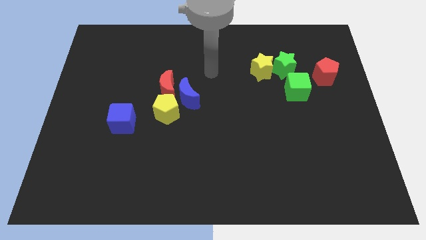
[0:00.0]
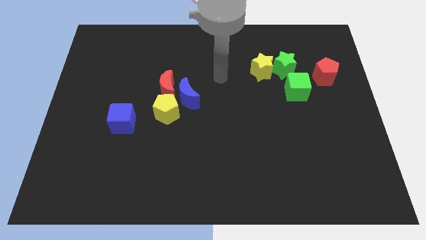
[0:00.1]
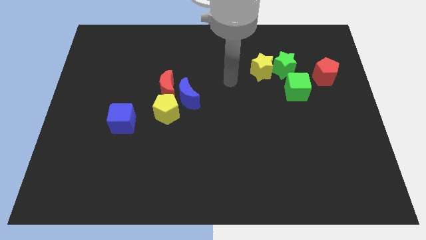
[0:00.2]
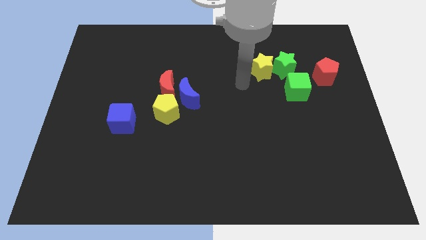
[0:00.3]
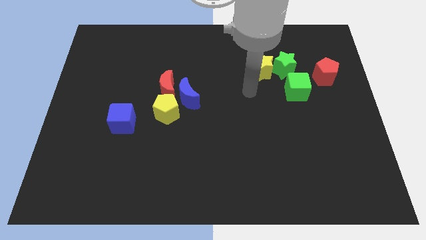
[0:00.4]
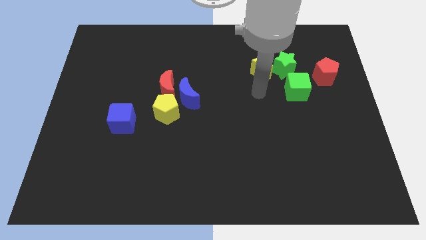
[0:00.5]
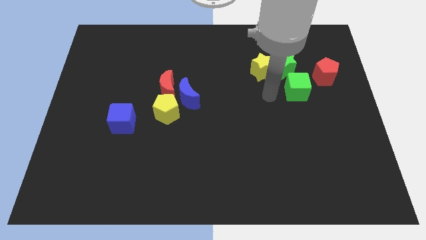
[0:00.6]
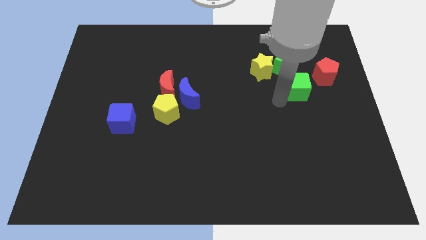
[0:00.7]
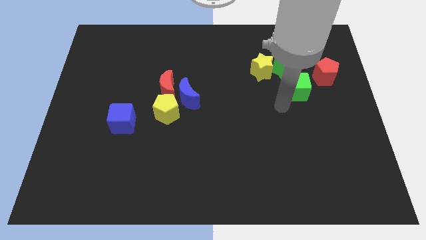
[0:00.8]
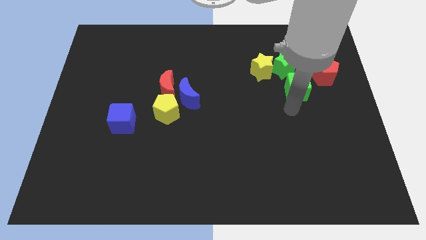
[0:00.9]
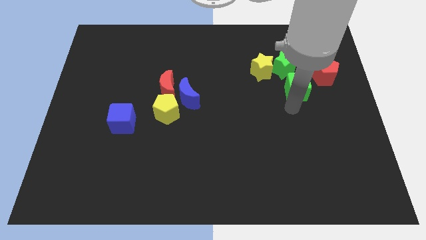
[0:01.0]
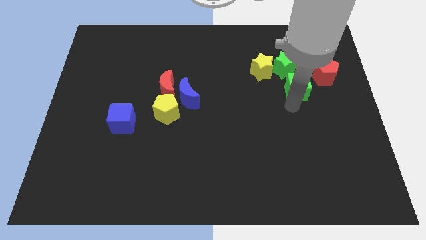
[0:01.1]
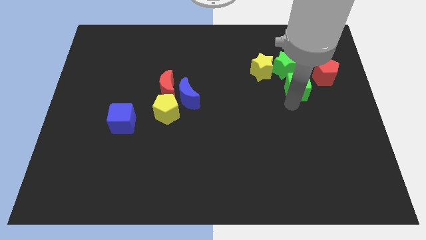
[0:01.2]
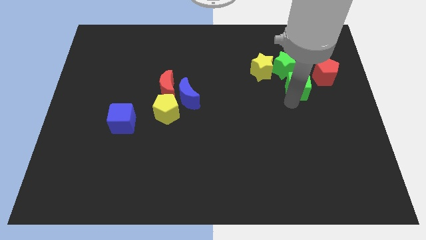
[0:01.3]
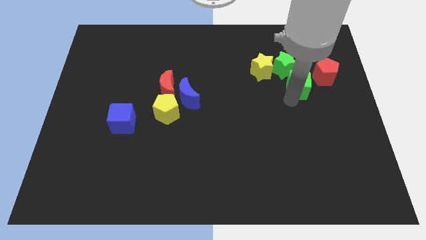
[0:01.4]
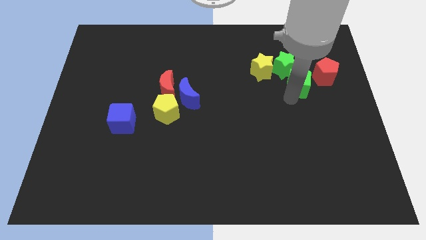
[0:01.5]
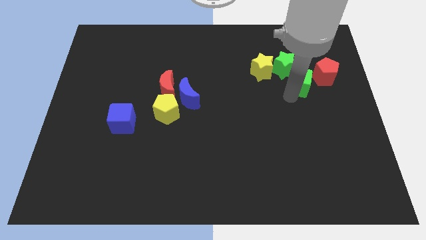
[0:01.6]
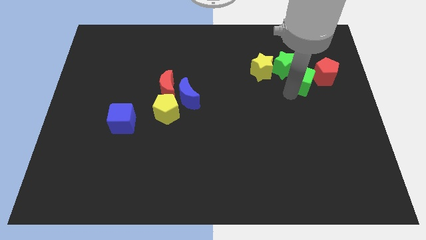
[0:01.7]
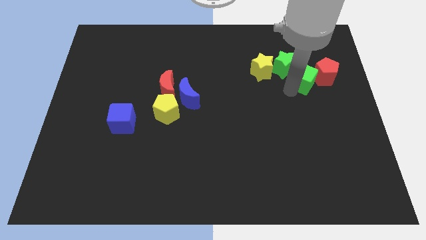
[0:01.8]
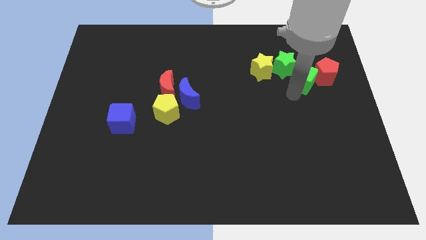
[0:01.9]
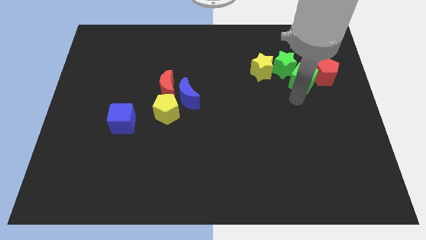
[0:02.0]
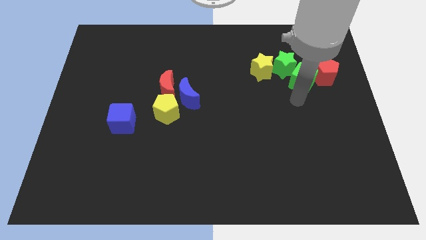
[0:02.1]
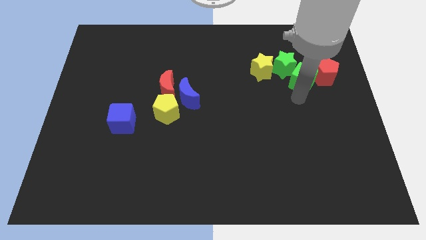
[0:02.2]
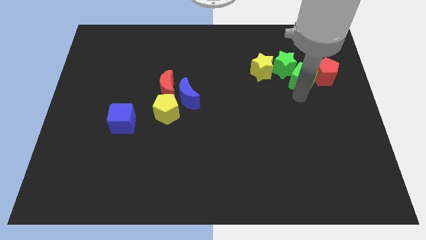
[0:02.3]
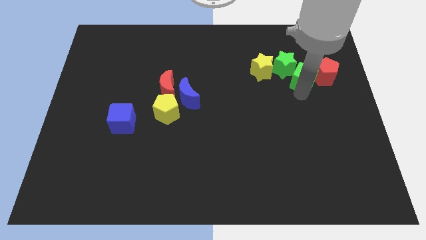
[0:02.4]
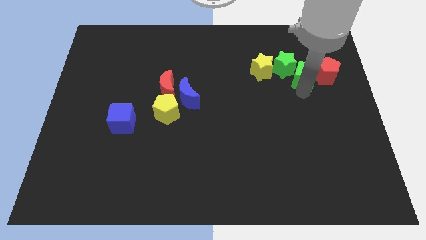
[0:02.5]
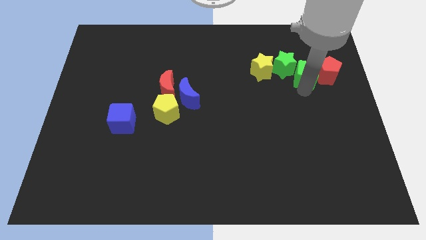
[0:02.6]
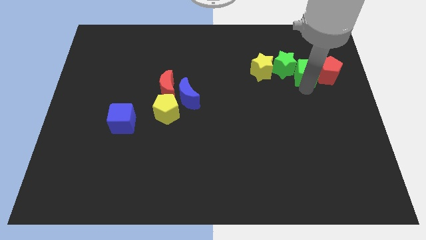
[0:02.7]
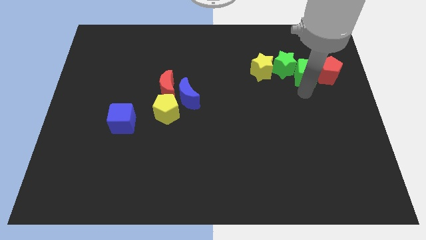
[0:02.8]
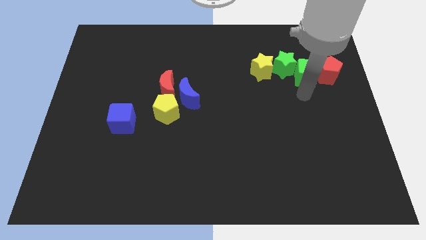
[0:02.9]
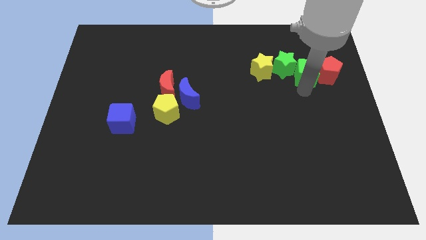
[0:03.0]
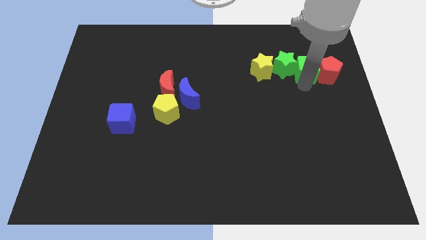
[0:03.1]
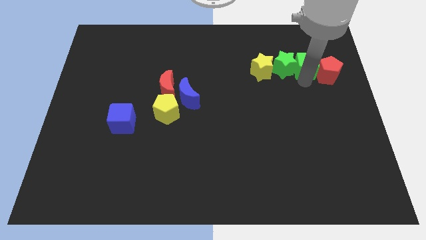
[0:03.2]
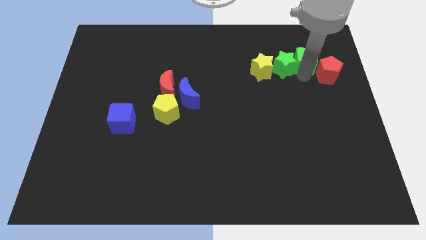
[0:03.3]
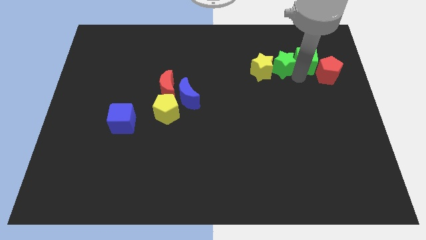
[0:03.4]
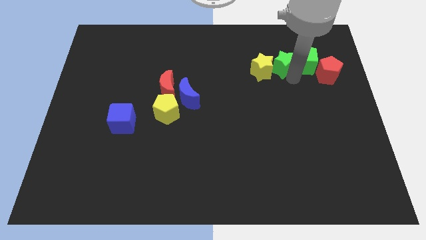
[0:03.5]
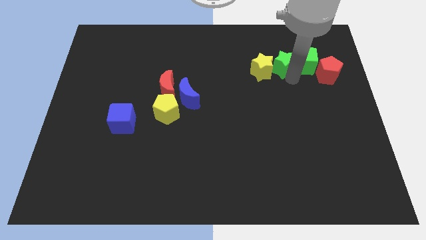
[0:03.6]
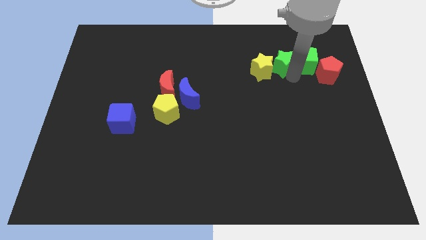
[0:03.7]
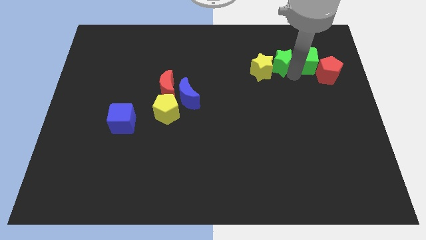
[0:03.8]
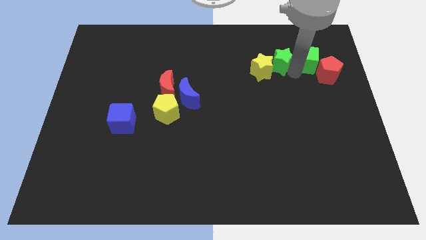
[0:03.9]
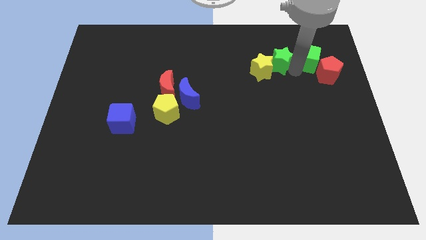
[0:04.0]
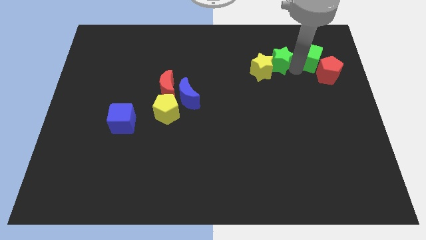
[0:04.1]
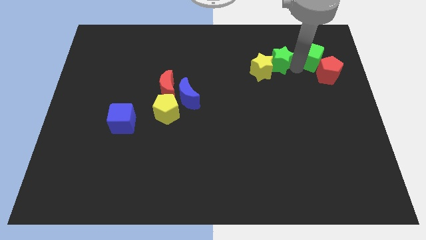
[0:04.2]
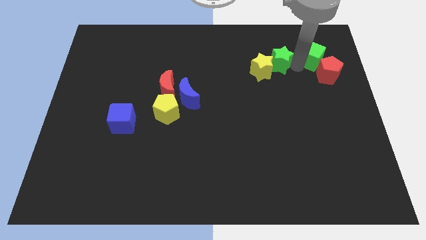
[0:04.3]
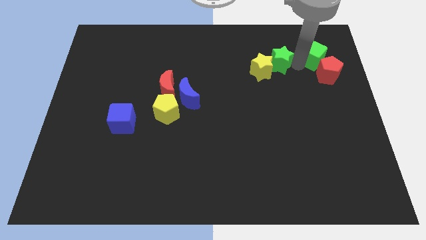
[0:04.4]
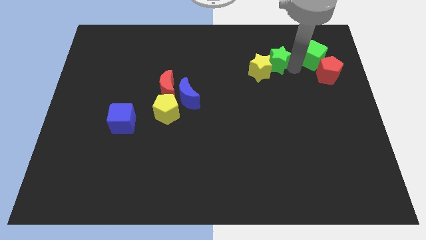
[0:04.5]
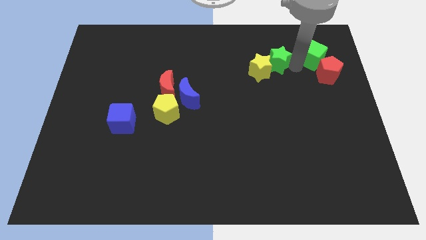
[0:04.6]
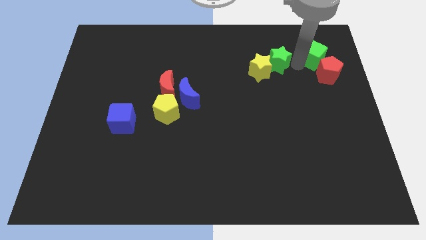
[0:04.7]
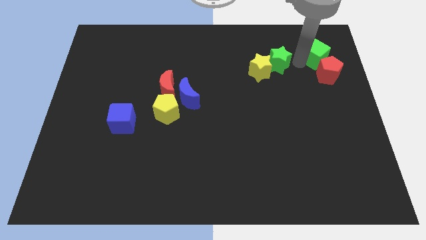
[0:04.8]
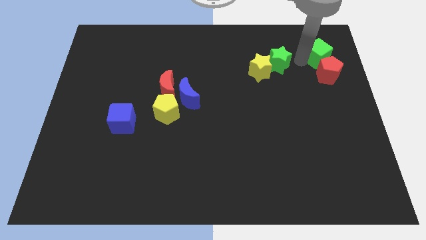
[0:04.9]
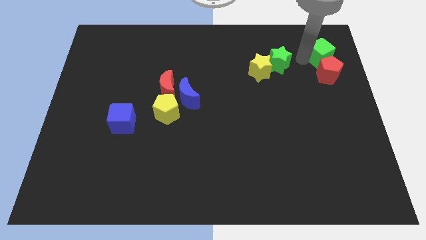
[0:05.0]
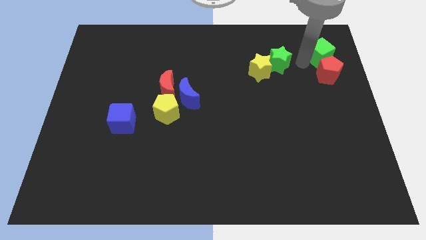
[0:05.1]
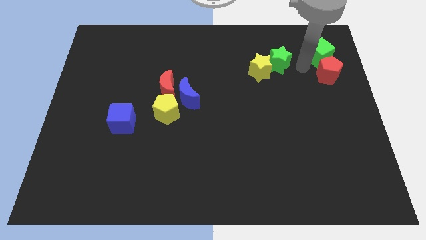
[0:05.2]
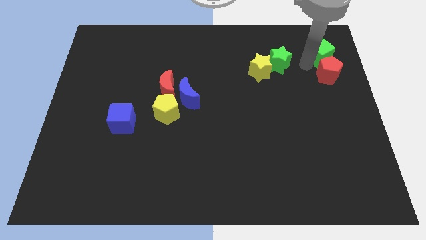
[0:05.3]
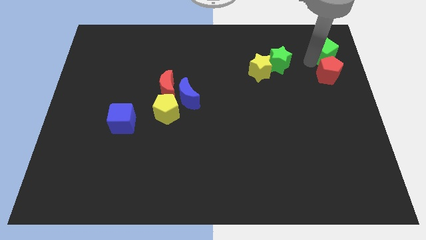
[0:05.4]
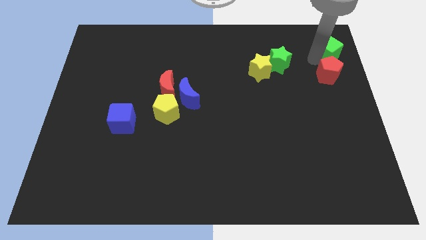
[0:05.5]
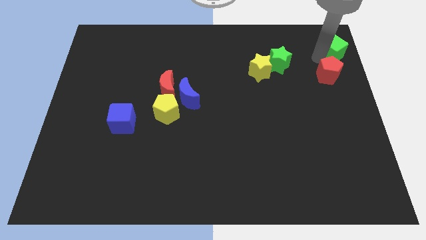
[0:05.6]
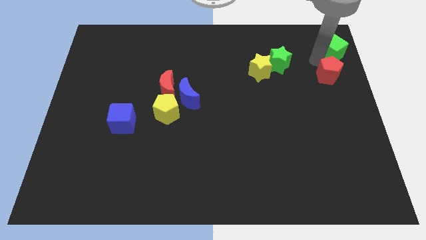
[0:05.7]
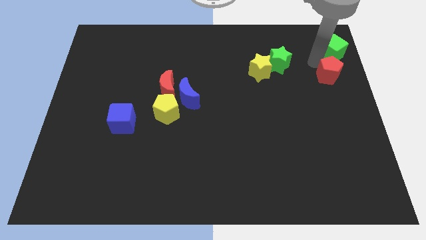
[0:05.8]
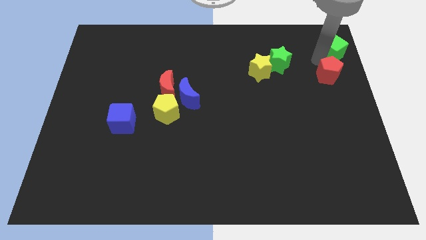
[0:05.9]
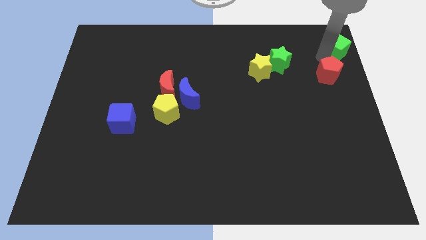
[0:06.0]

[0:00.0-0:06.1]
slide the green cube to the top right of the board
